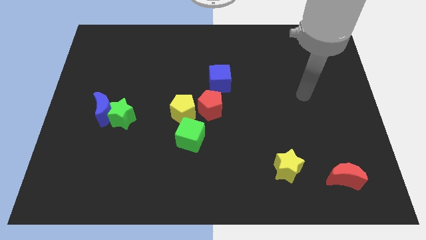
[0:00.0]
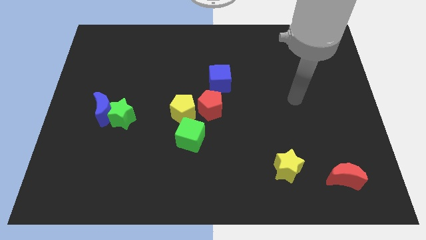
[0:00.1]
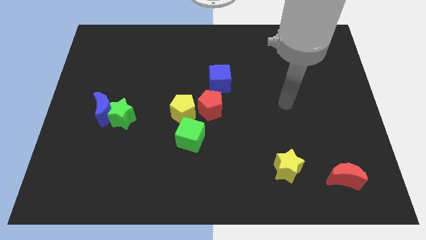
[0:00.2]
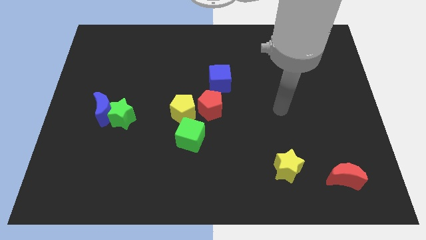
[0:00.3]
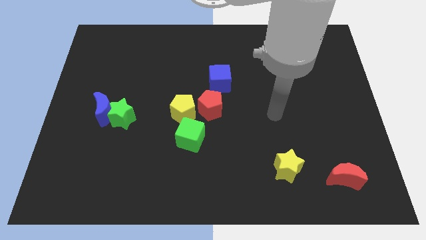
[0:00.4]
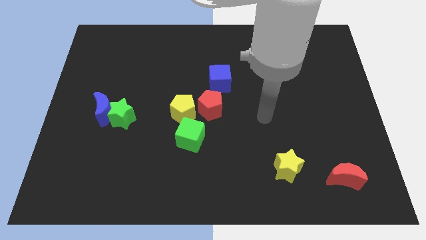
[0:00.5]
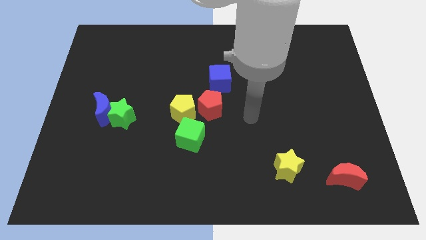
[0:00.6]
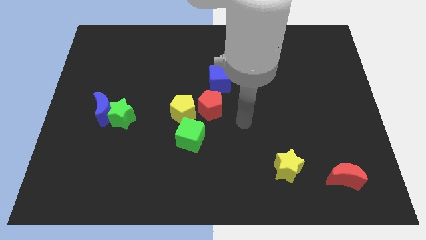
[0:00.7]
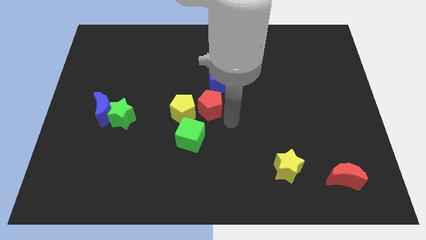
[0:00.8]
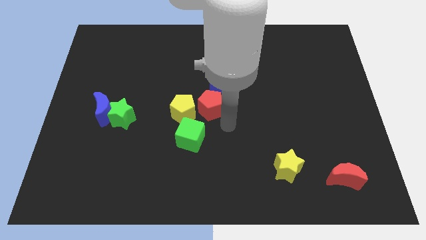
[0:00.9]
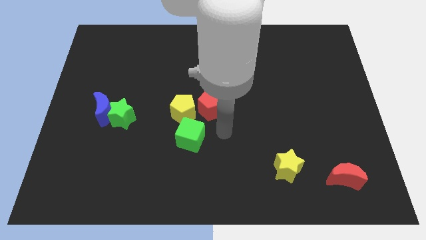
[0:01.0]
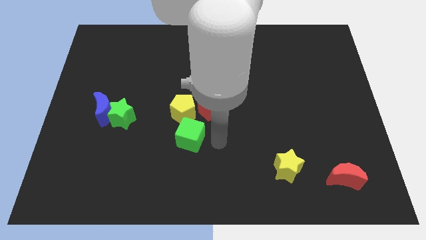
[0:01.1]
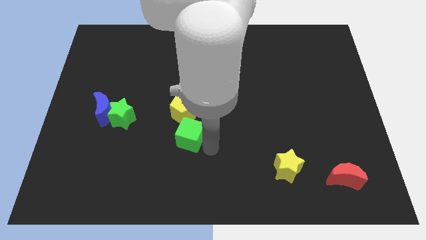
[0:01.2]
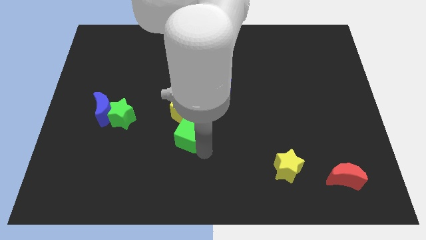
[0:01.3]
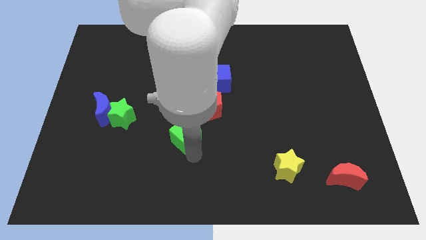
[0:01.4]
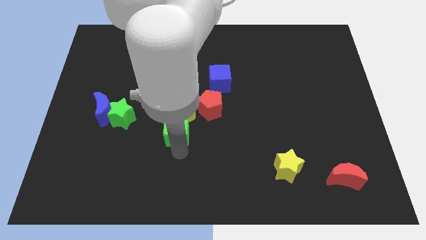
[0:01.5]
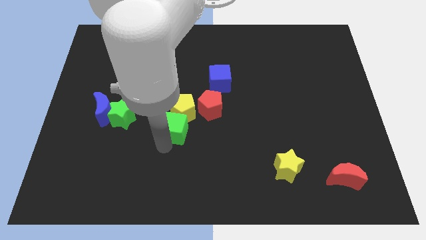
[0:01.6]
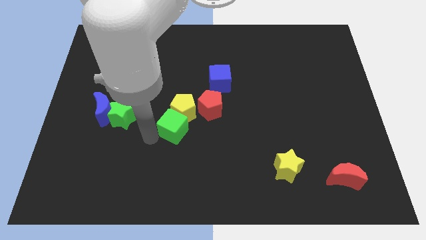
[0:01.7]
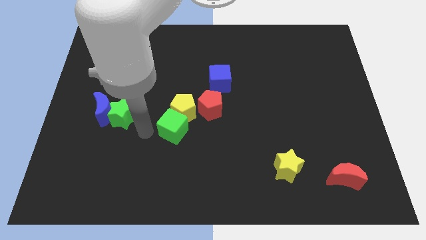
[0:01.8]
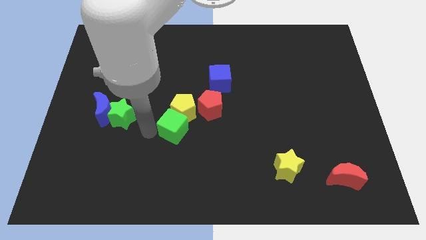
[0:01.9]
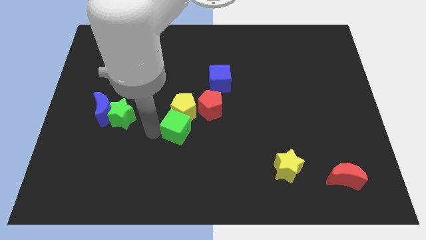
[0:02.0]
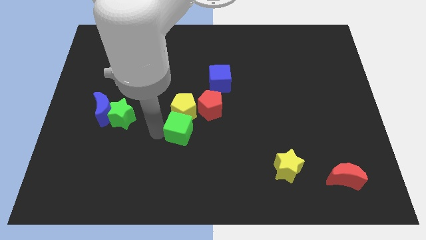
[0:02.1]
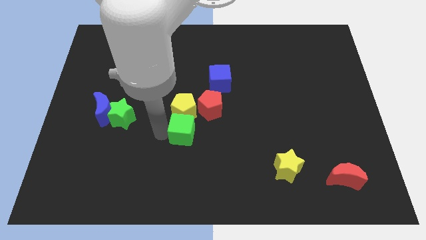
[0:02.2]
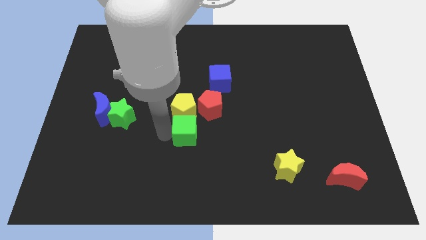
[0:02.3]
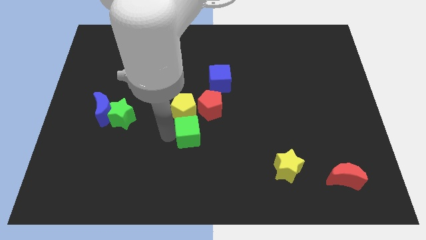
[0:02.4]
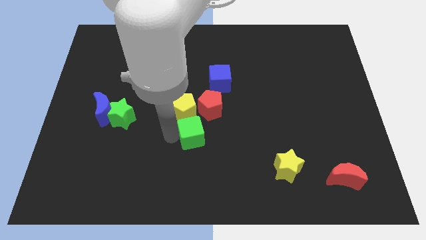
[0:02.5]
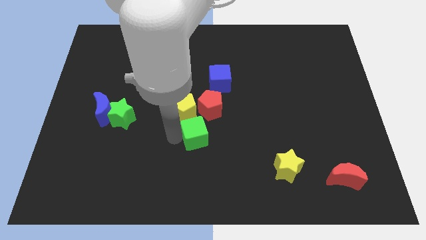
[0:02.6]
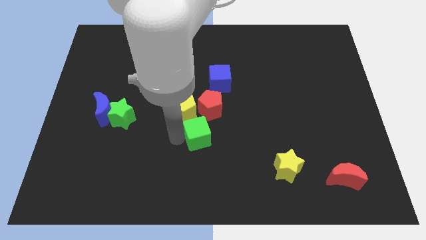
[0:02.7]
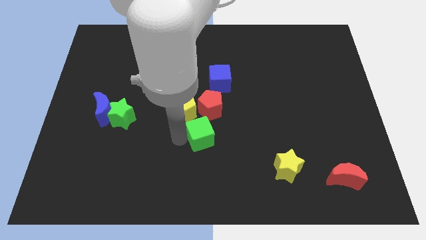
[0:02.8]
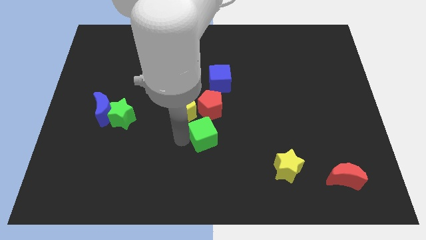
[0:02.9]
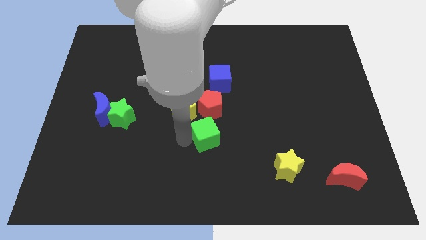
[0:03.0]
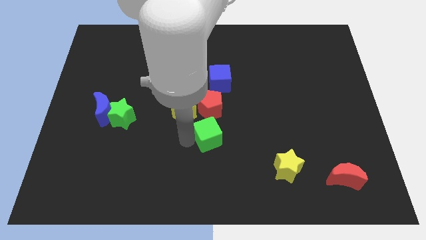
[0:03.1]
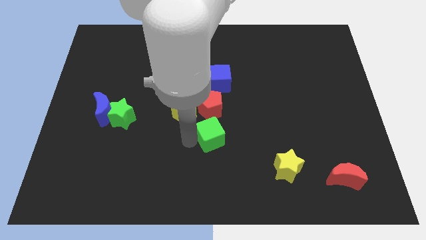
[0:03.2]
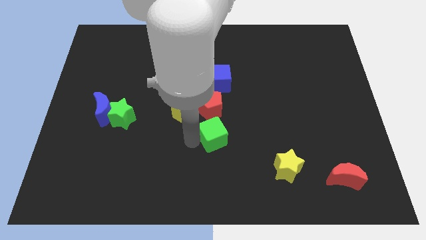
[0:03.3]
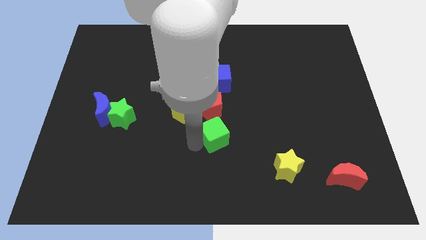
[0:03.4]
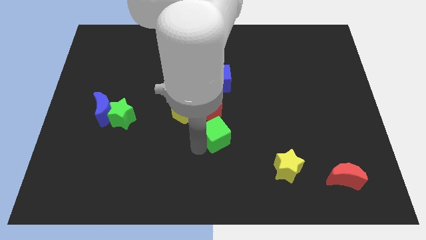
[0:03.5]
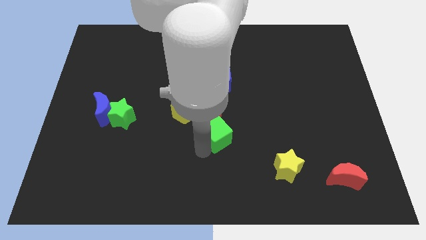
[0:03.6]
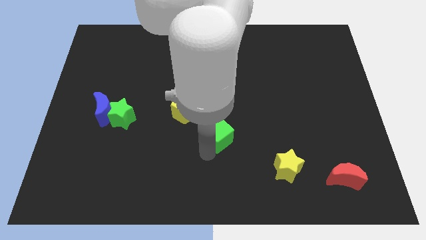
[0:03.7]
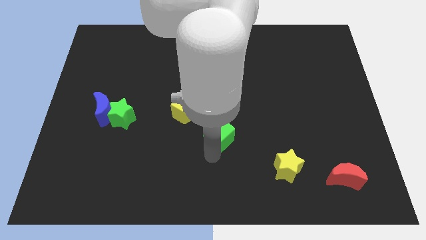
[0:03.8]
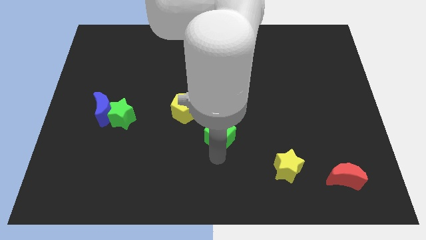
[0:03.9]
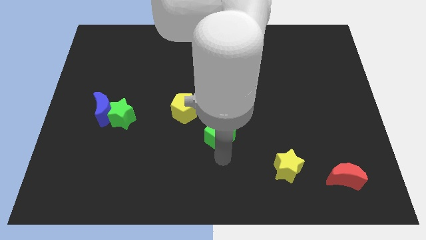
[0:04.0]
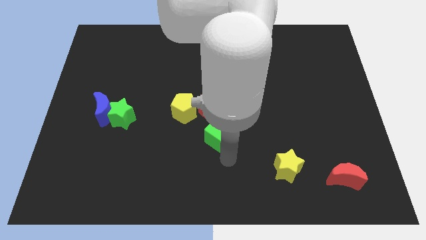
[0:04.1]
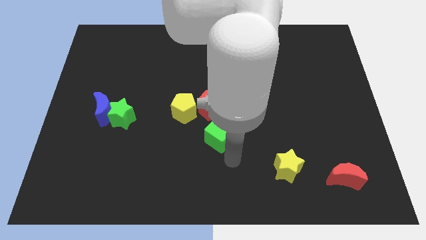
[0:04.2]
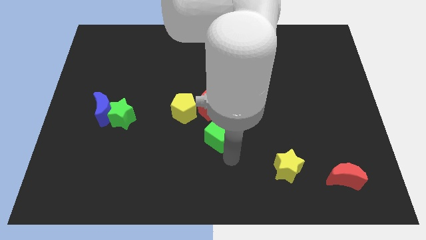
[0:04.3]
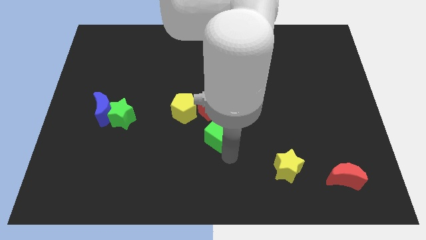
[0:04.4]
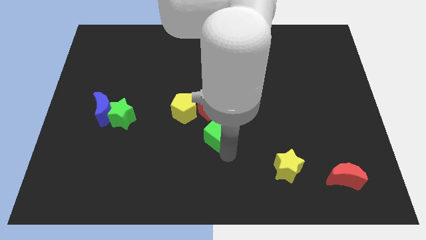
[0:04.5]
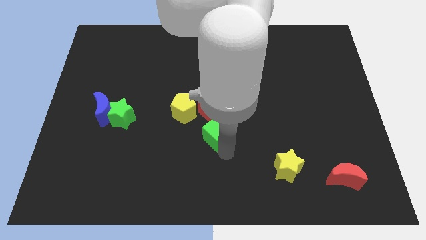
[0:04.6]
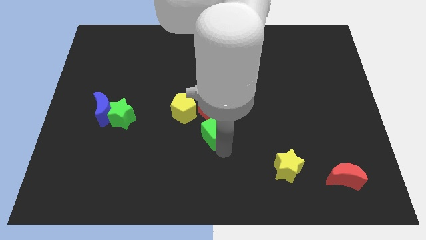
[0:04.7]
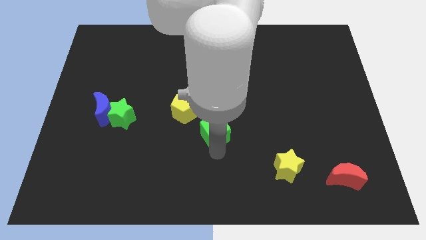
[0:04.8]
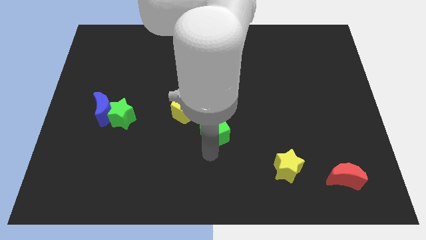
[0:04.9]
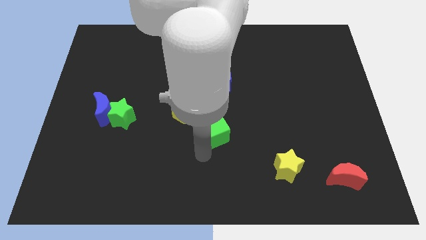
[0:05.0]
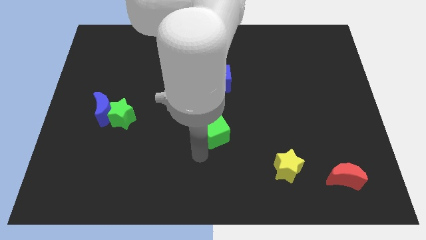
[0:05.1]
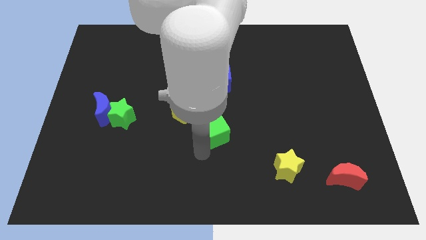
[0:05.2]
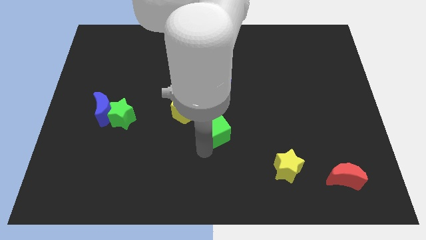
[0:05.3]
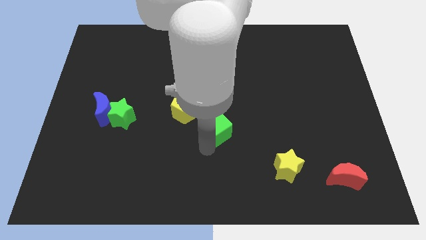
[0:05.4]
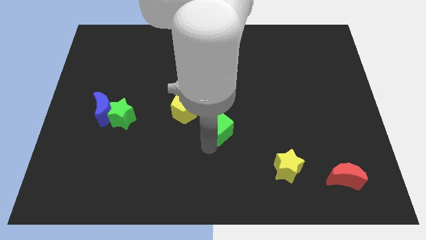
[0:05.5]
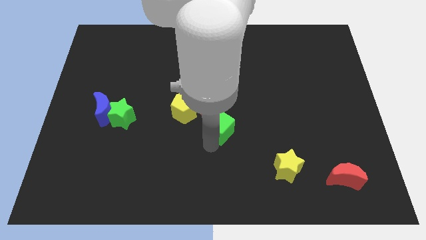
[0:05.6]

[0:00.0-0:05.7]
put the green cube to the right side of the yellow pentagon
